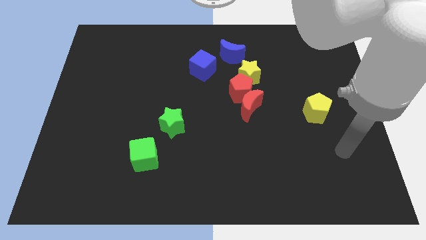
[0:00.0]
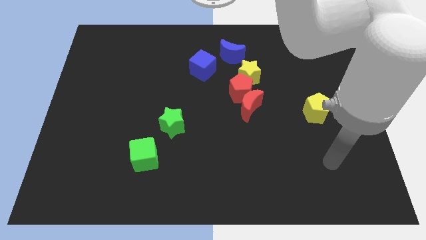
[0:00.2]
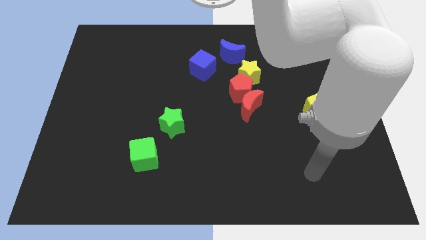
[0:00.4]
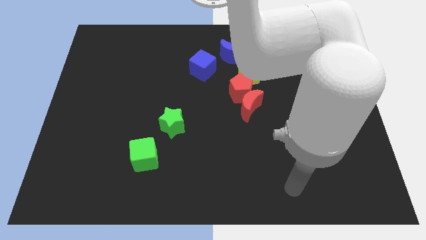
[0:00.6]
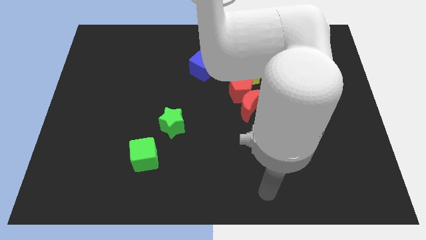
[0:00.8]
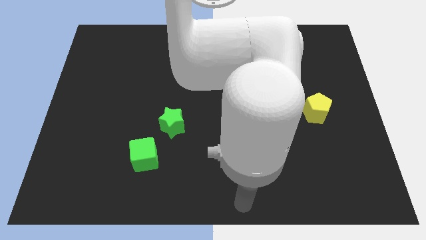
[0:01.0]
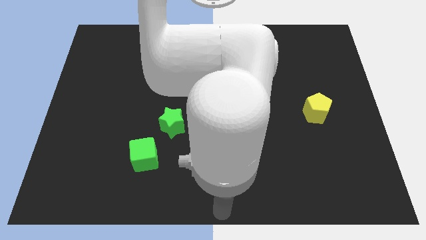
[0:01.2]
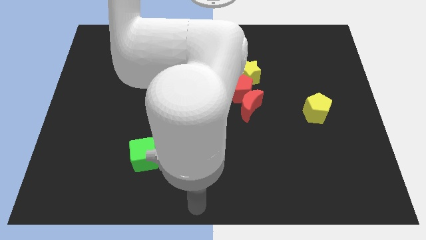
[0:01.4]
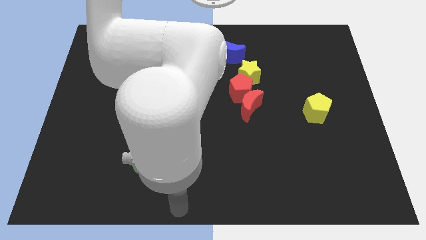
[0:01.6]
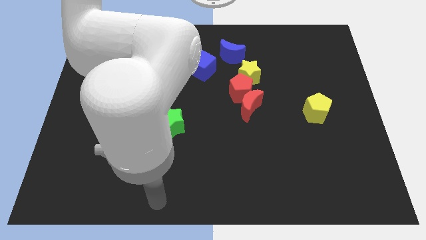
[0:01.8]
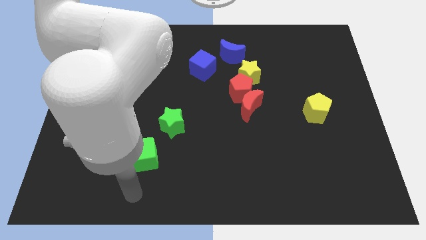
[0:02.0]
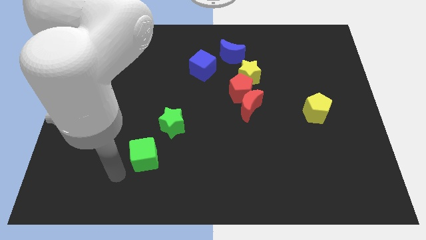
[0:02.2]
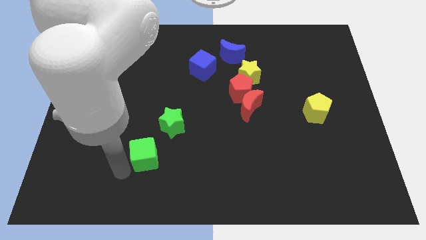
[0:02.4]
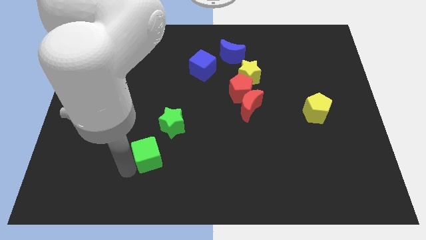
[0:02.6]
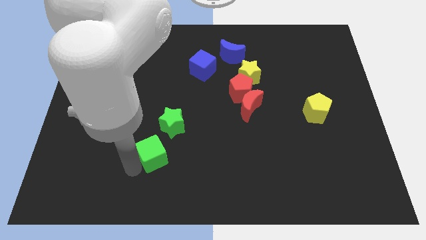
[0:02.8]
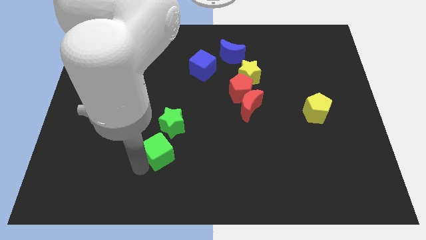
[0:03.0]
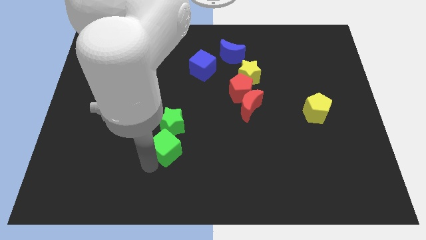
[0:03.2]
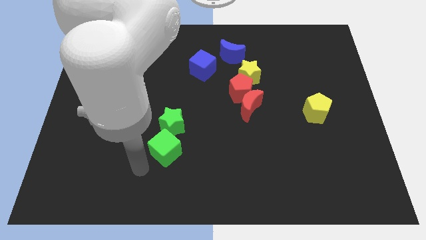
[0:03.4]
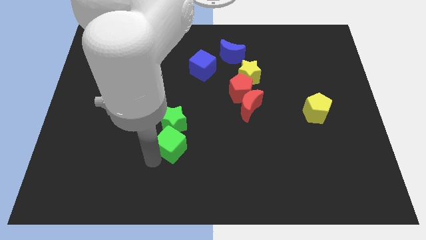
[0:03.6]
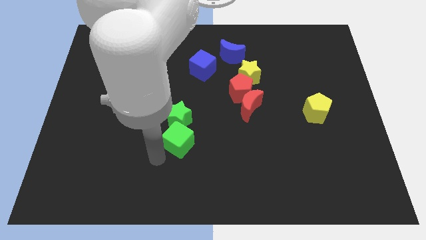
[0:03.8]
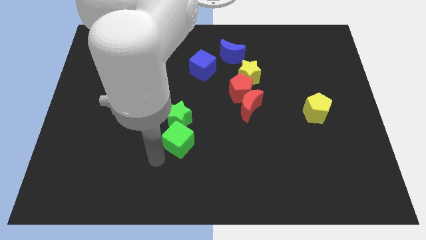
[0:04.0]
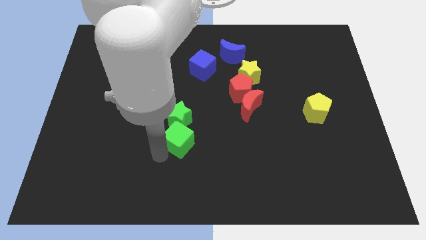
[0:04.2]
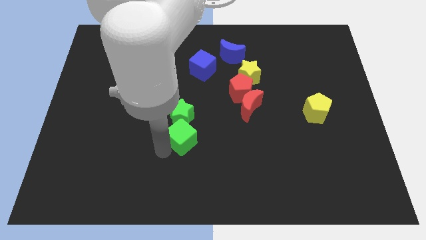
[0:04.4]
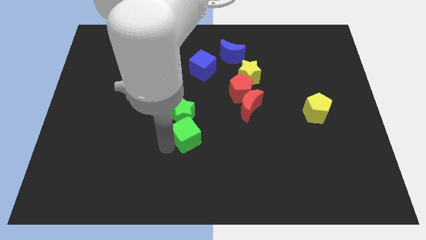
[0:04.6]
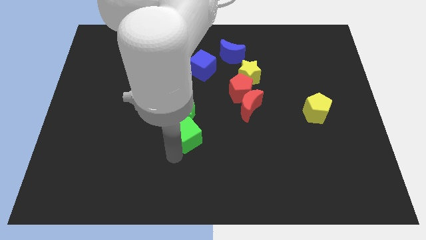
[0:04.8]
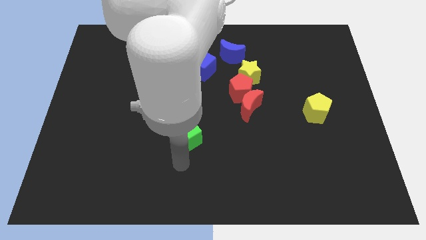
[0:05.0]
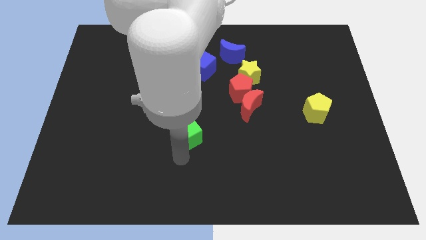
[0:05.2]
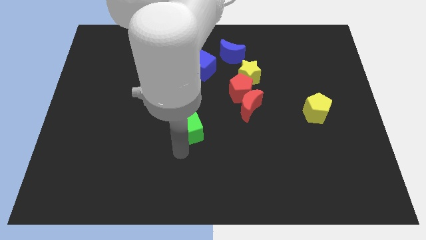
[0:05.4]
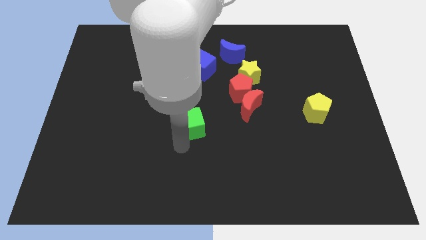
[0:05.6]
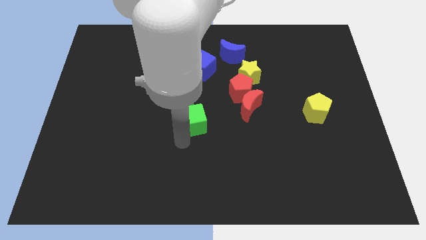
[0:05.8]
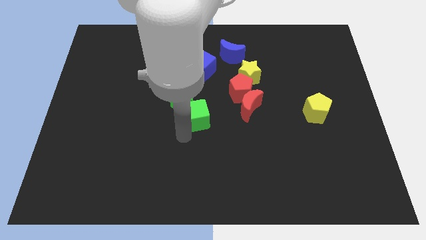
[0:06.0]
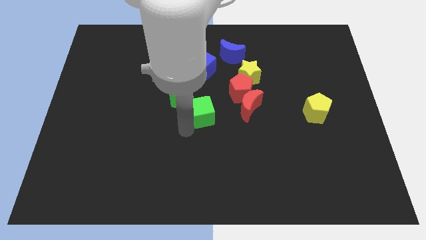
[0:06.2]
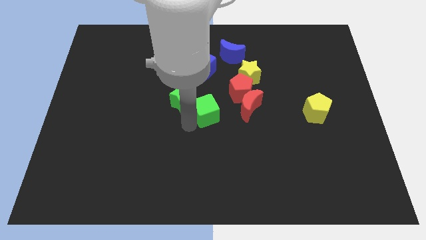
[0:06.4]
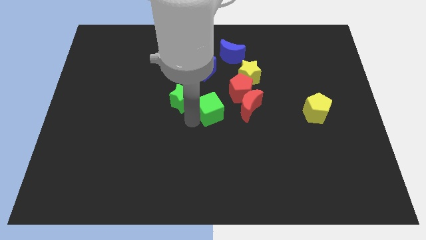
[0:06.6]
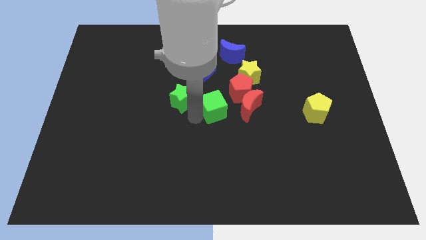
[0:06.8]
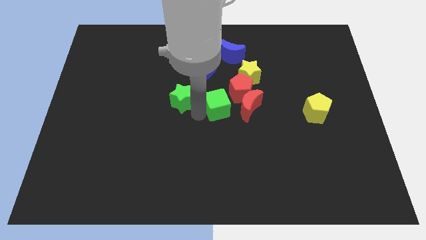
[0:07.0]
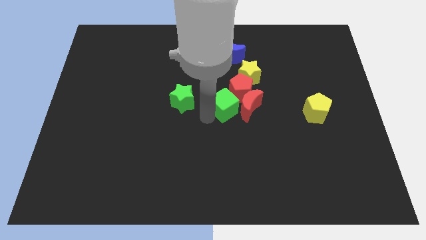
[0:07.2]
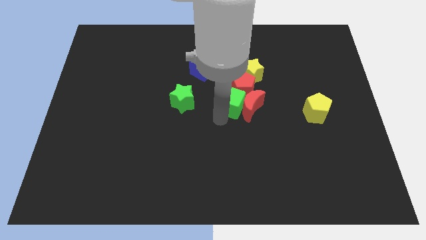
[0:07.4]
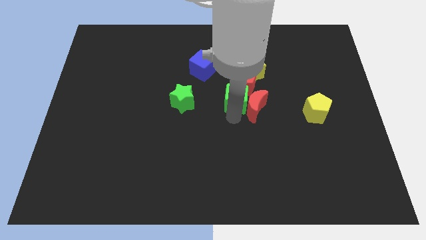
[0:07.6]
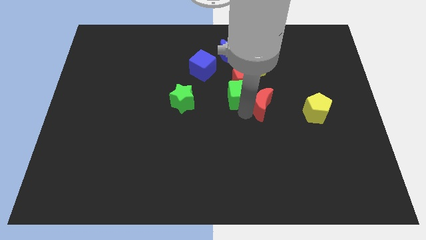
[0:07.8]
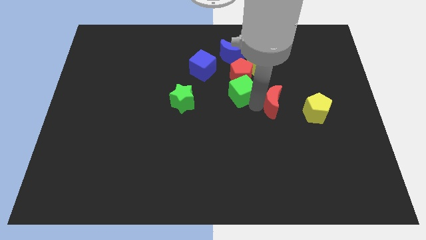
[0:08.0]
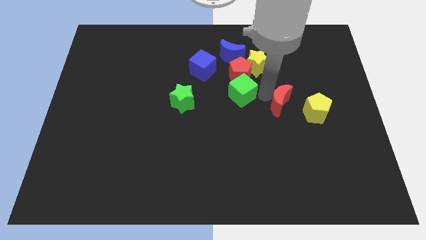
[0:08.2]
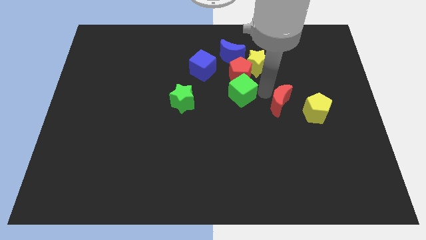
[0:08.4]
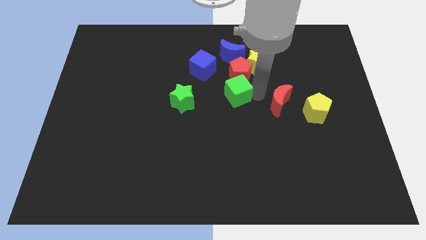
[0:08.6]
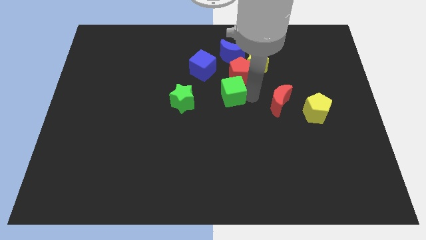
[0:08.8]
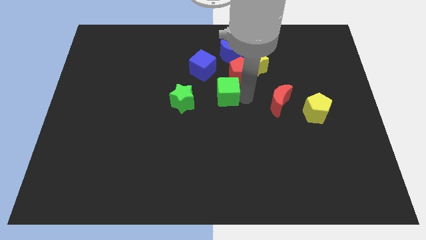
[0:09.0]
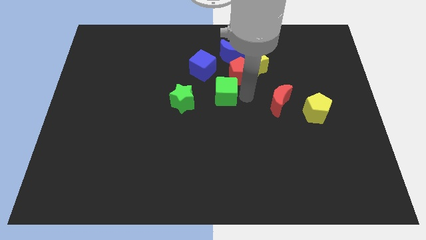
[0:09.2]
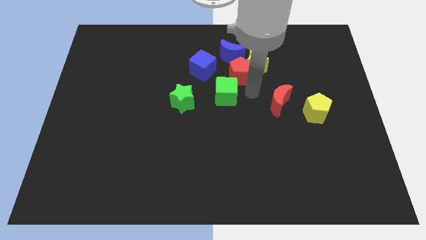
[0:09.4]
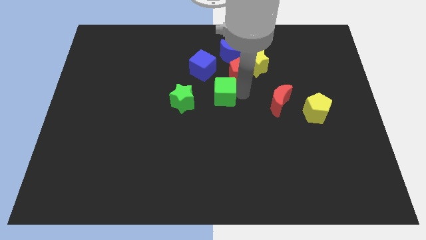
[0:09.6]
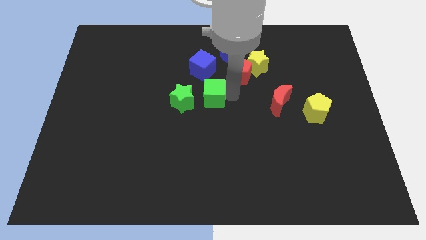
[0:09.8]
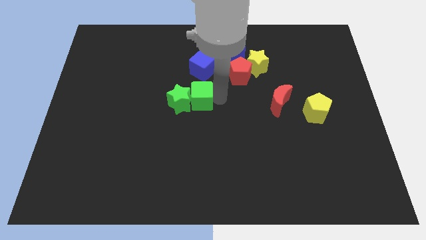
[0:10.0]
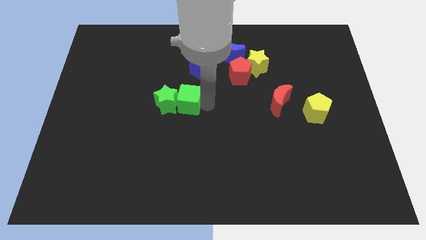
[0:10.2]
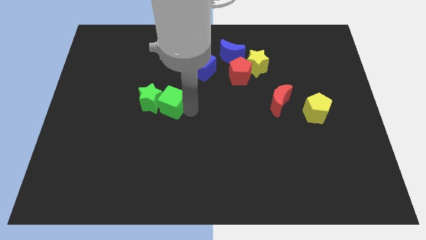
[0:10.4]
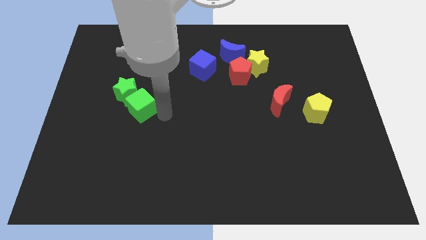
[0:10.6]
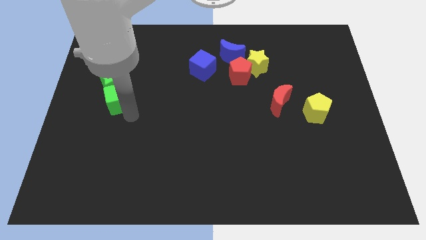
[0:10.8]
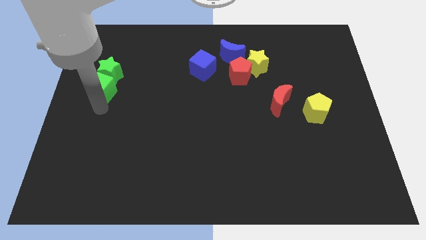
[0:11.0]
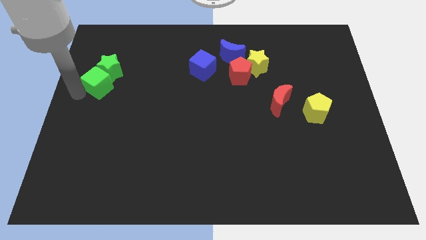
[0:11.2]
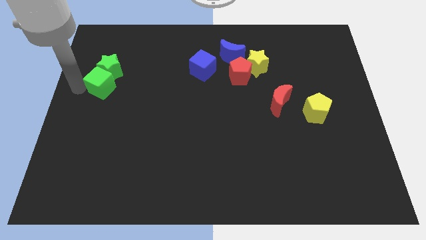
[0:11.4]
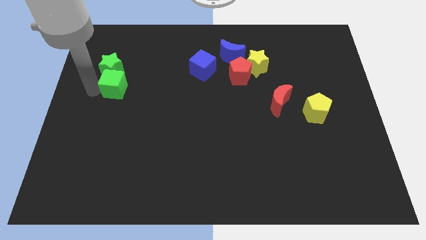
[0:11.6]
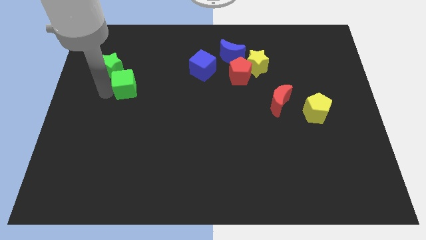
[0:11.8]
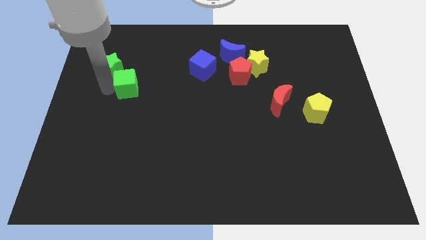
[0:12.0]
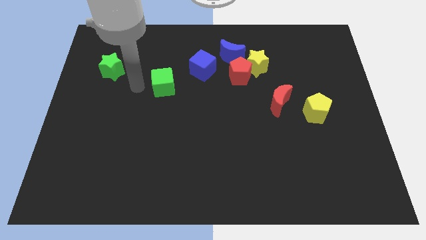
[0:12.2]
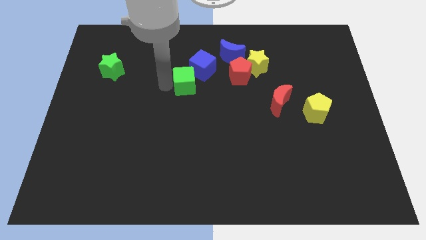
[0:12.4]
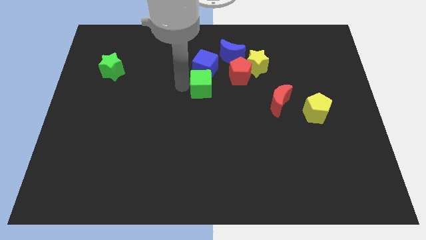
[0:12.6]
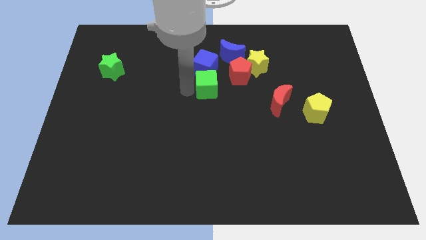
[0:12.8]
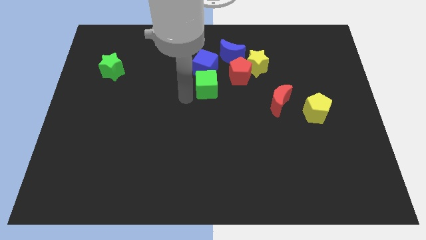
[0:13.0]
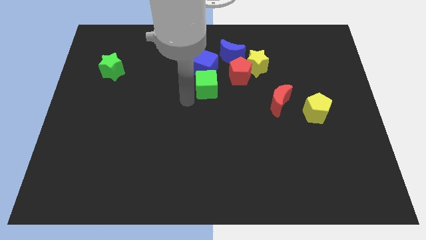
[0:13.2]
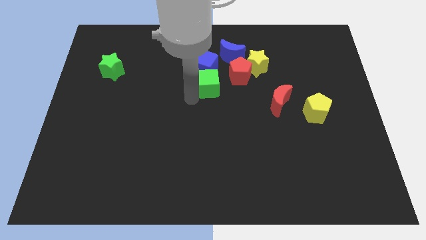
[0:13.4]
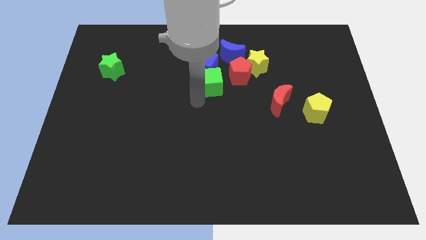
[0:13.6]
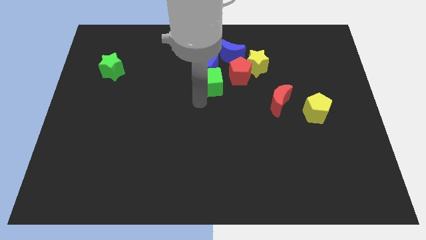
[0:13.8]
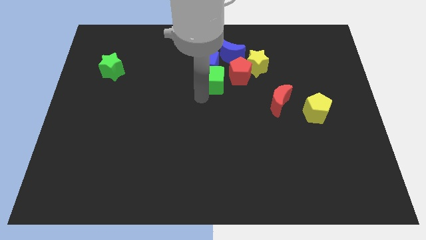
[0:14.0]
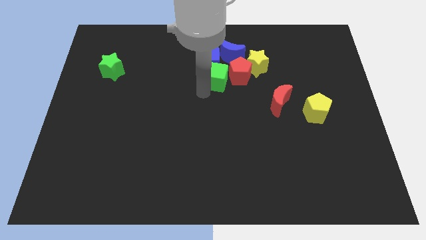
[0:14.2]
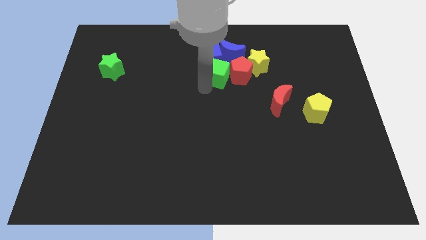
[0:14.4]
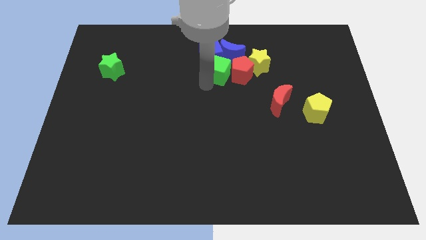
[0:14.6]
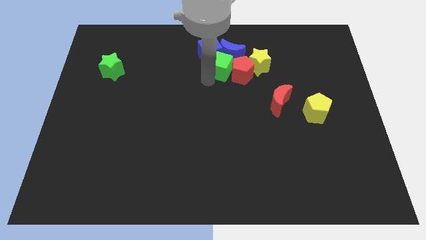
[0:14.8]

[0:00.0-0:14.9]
slide the green cube towards the blue moon
